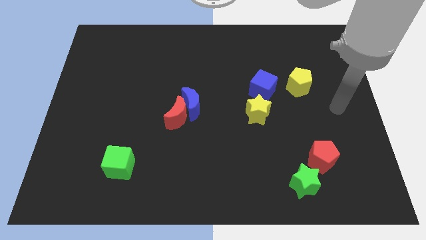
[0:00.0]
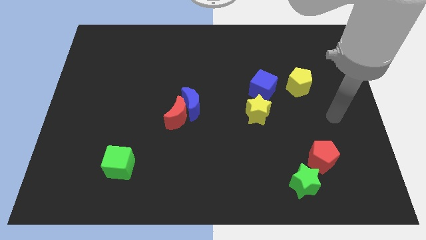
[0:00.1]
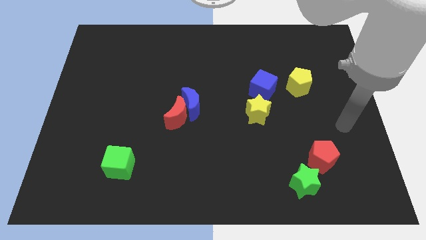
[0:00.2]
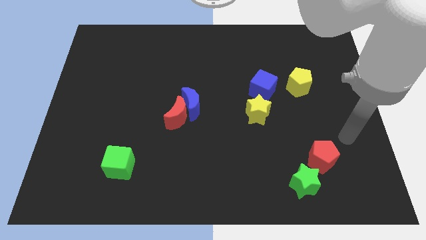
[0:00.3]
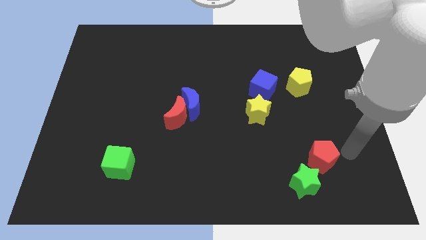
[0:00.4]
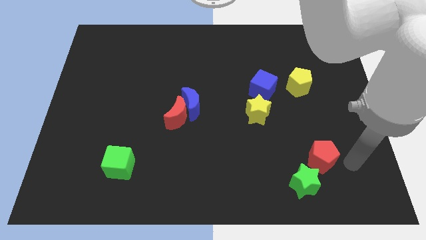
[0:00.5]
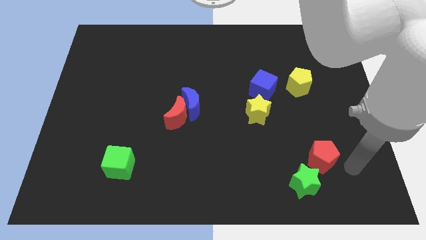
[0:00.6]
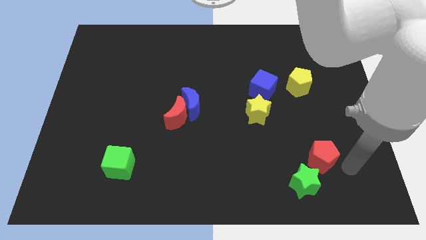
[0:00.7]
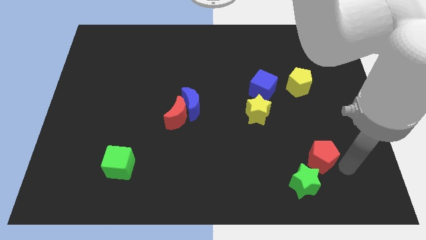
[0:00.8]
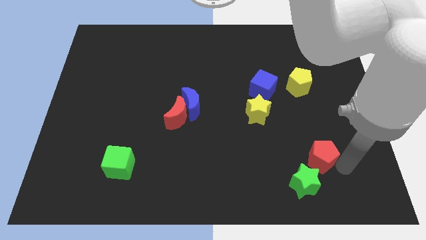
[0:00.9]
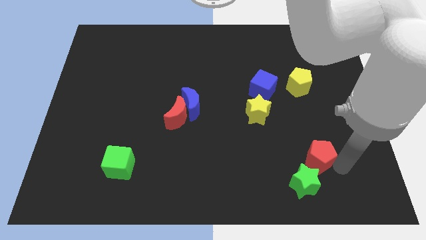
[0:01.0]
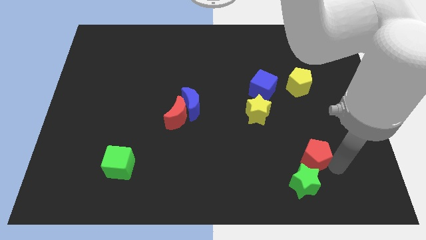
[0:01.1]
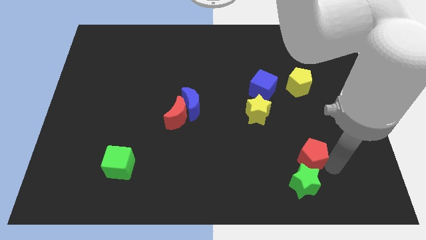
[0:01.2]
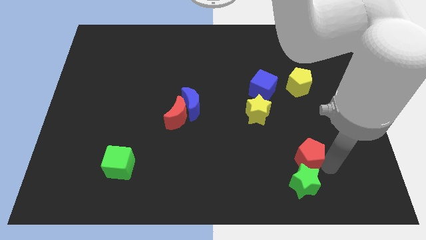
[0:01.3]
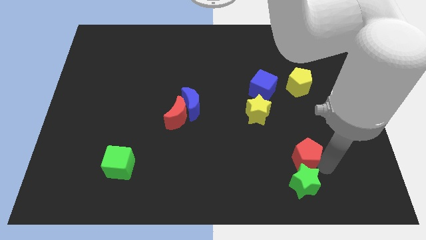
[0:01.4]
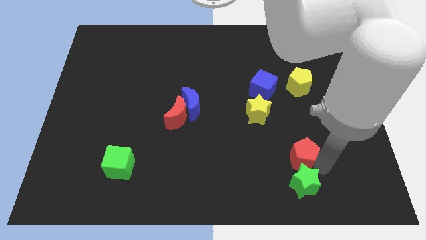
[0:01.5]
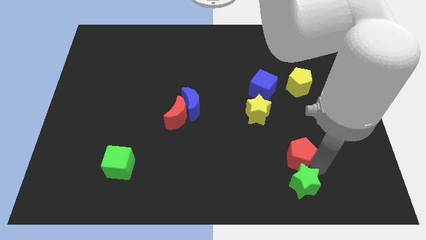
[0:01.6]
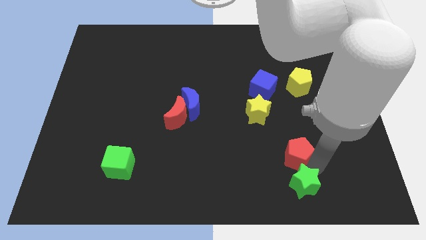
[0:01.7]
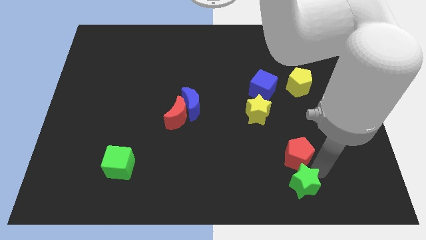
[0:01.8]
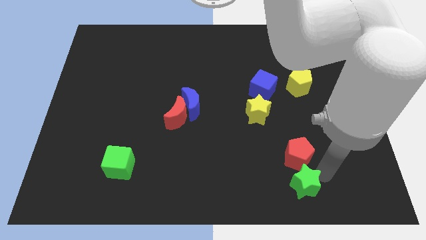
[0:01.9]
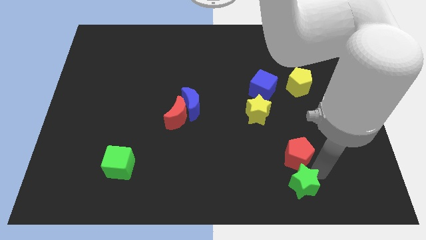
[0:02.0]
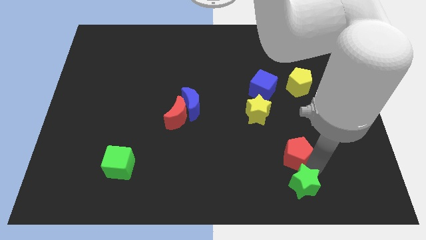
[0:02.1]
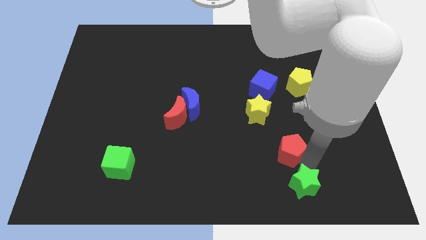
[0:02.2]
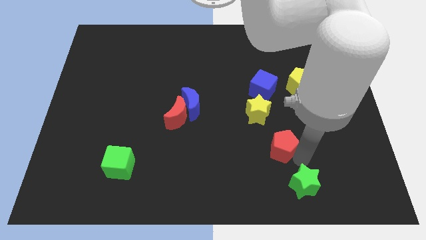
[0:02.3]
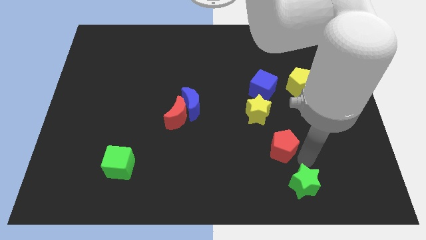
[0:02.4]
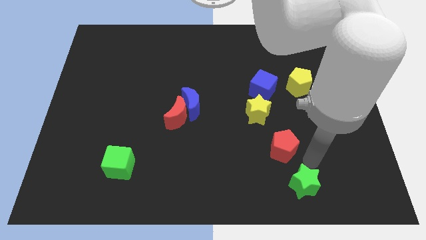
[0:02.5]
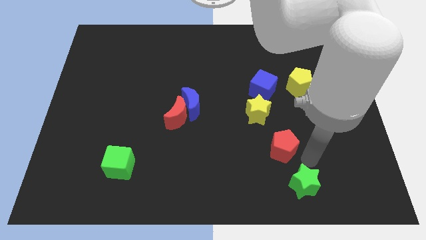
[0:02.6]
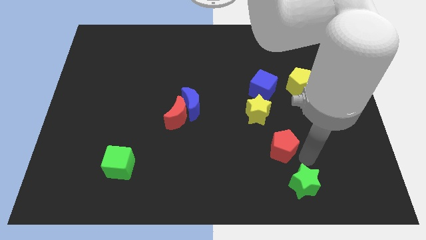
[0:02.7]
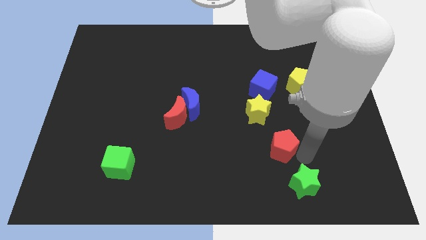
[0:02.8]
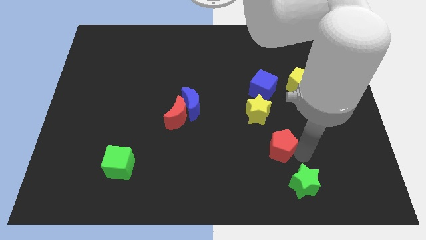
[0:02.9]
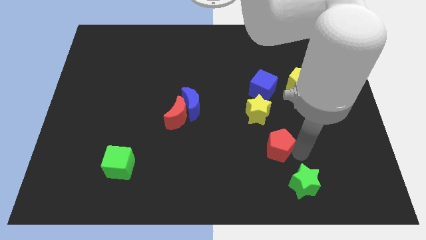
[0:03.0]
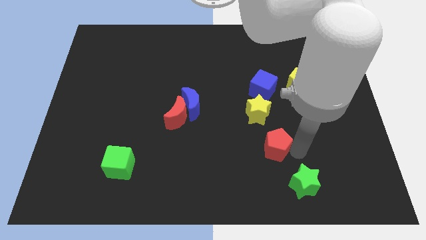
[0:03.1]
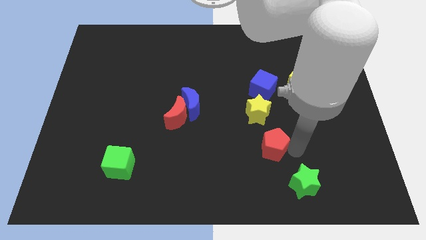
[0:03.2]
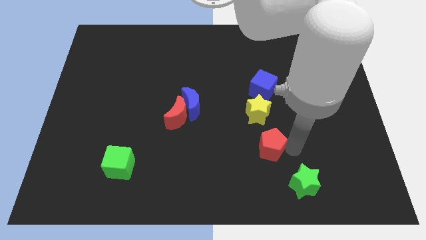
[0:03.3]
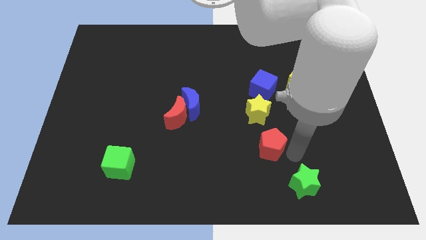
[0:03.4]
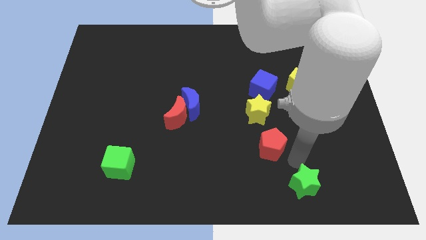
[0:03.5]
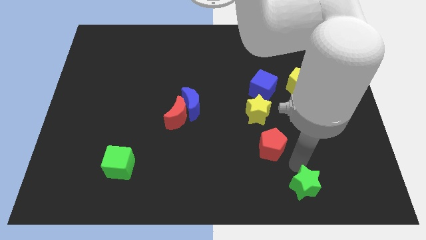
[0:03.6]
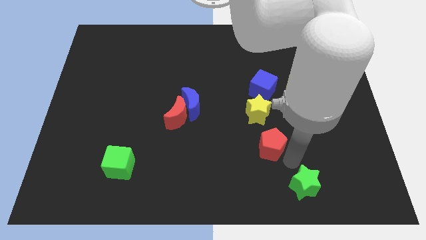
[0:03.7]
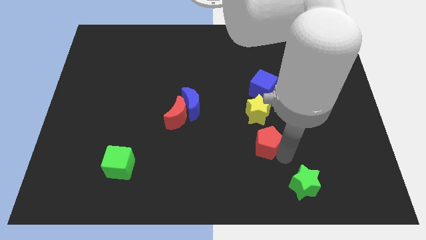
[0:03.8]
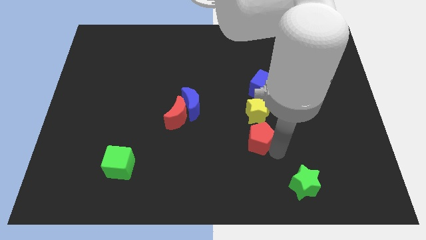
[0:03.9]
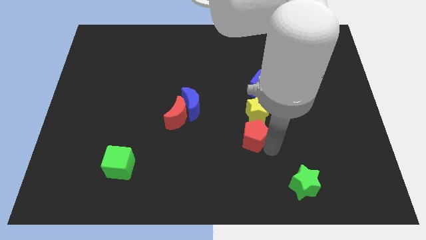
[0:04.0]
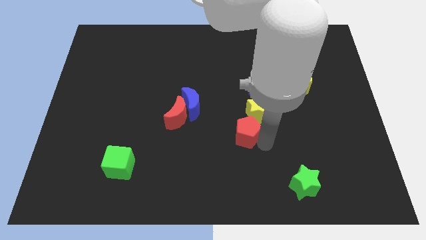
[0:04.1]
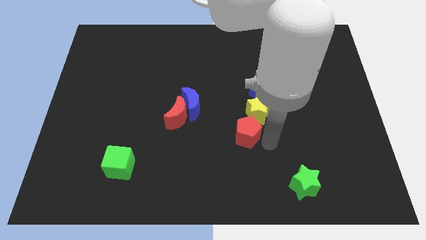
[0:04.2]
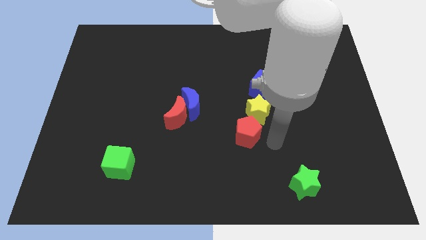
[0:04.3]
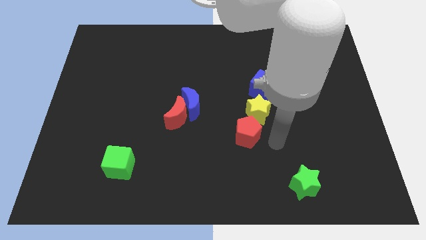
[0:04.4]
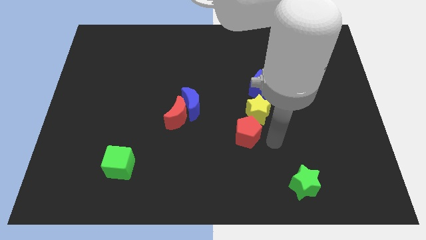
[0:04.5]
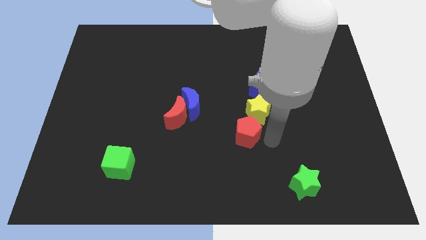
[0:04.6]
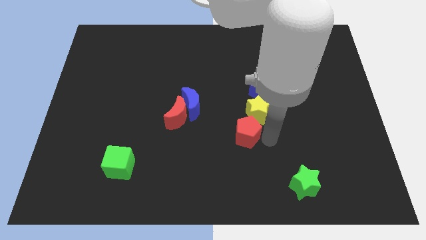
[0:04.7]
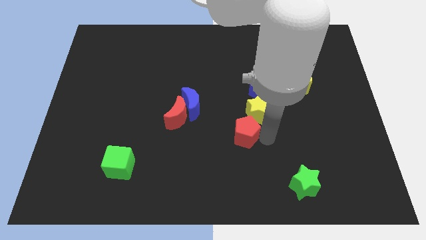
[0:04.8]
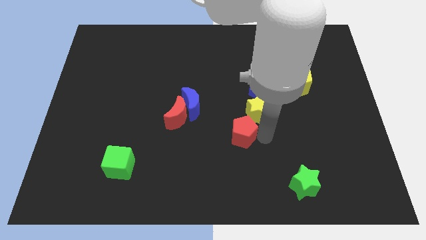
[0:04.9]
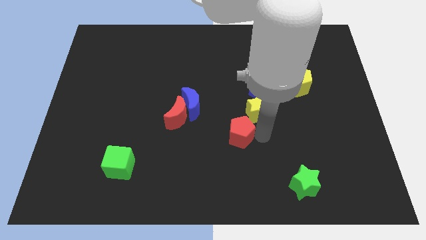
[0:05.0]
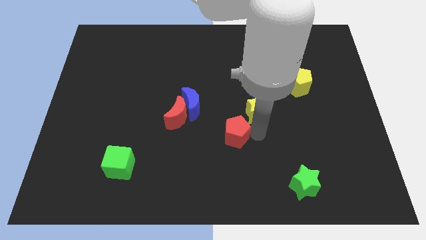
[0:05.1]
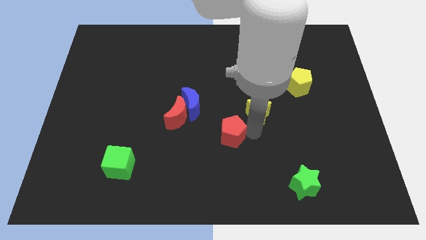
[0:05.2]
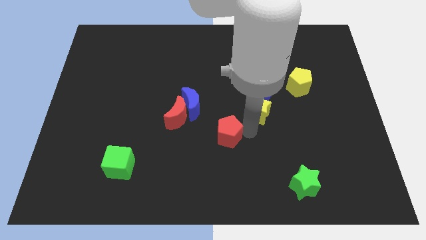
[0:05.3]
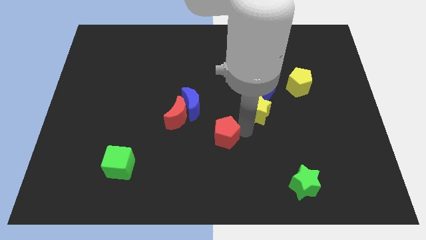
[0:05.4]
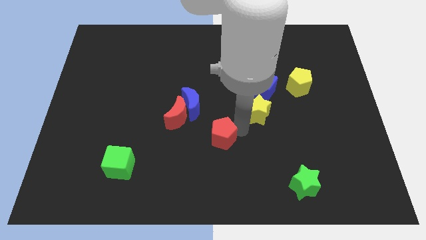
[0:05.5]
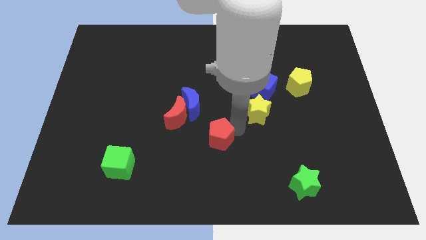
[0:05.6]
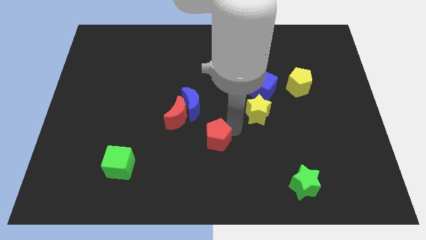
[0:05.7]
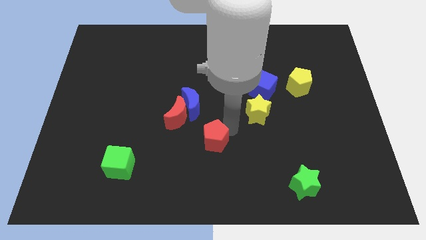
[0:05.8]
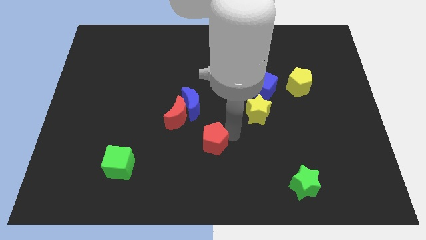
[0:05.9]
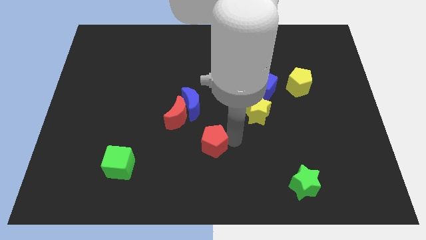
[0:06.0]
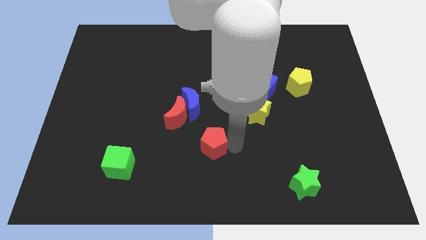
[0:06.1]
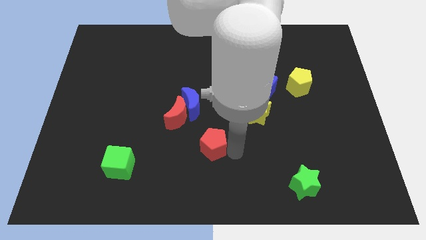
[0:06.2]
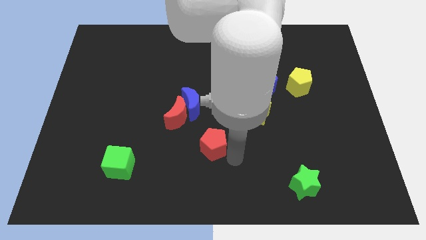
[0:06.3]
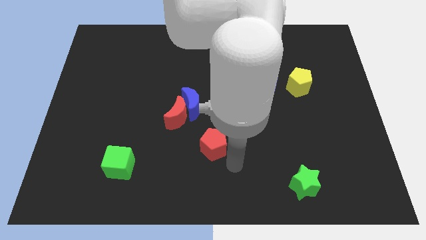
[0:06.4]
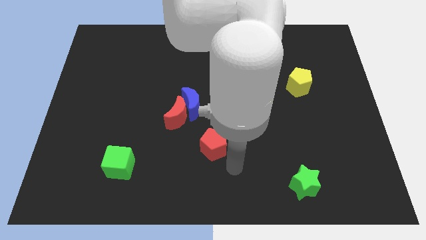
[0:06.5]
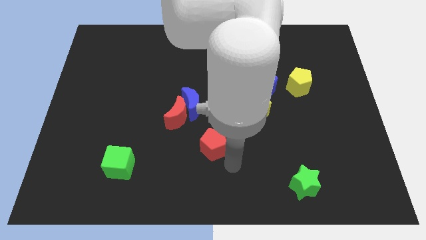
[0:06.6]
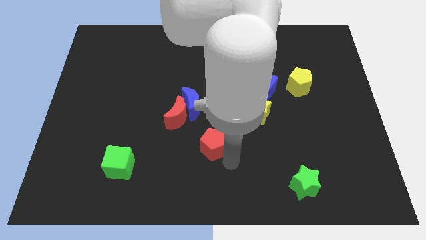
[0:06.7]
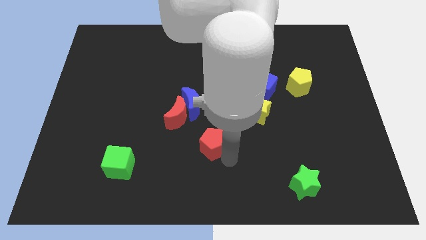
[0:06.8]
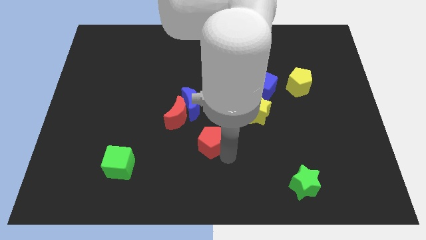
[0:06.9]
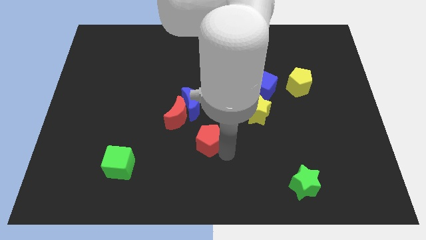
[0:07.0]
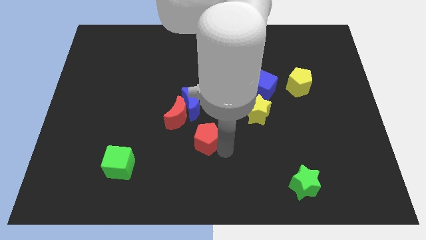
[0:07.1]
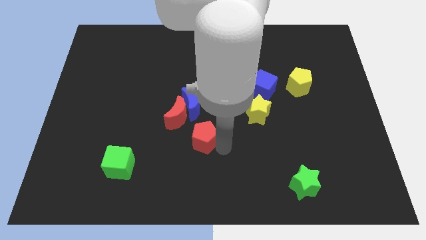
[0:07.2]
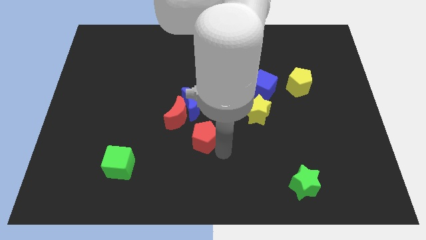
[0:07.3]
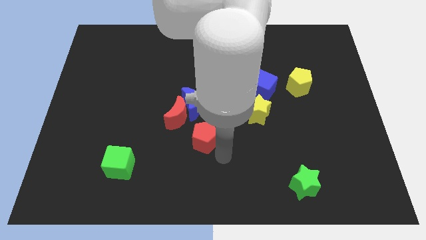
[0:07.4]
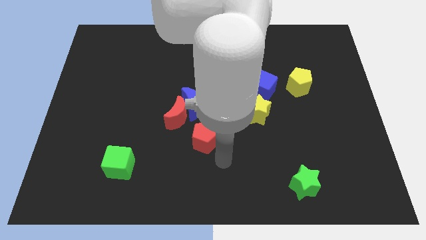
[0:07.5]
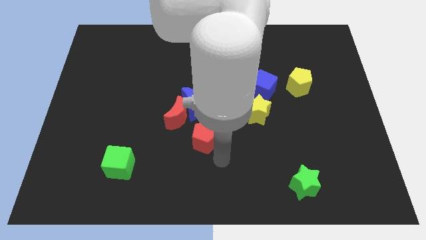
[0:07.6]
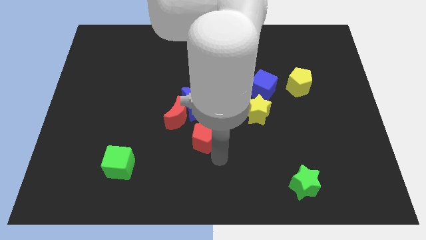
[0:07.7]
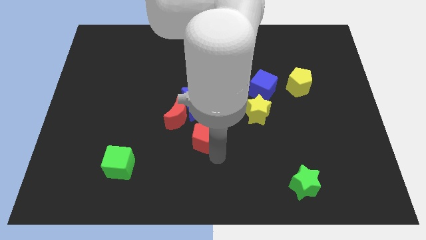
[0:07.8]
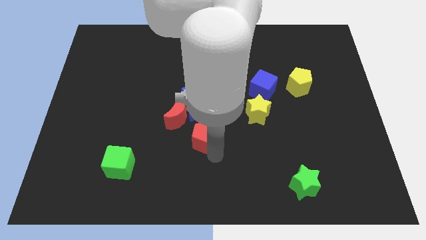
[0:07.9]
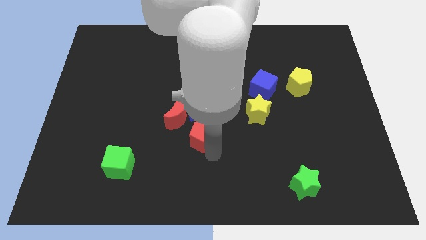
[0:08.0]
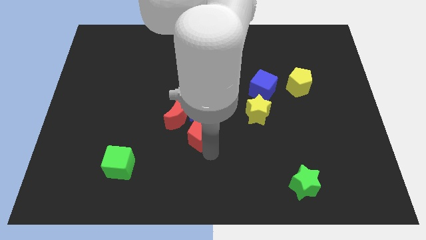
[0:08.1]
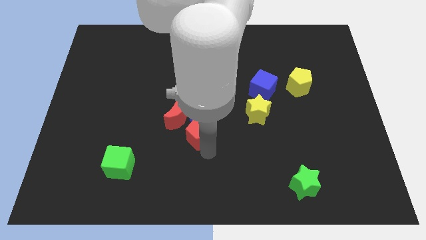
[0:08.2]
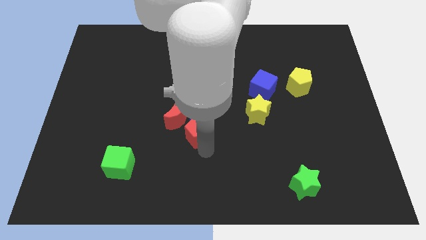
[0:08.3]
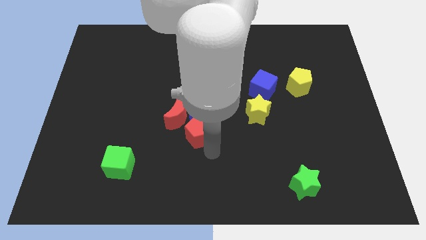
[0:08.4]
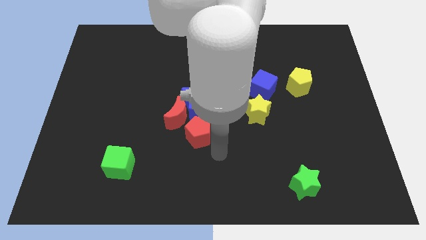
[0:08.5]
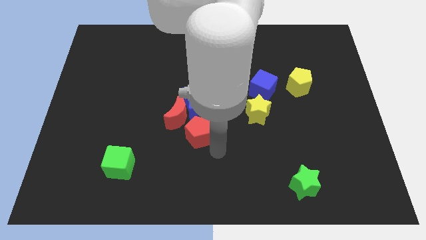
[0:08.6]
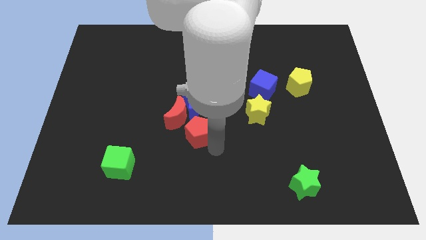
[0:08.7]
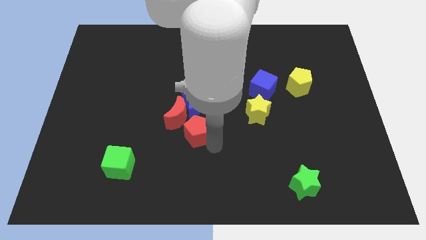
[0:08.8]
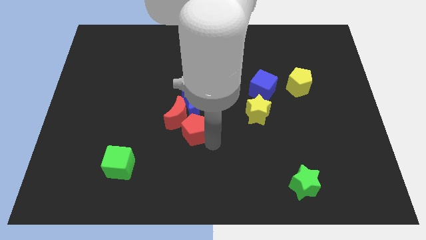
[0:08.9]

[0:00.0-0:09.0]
move the red pentagon to the red moon
